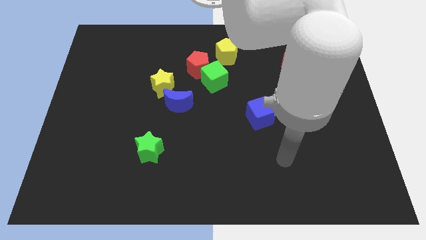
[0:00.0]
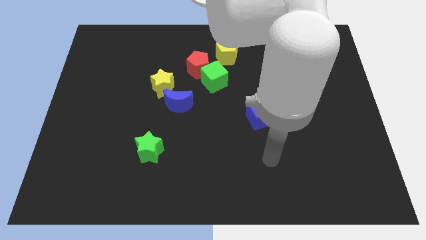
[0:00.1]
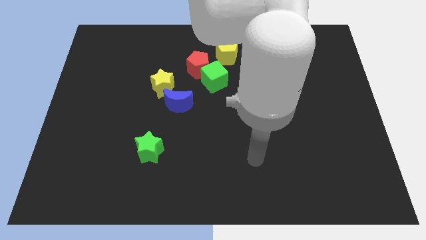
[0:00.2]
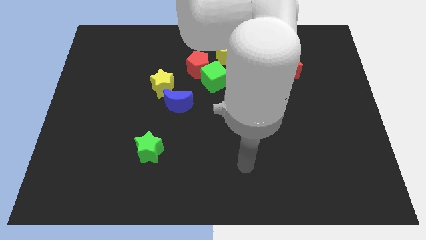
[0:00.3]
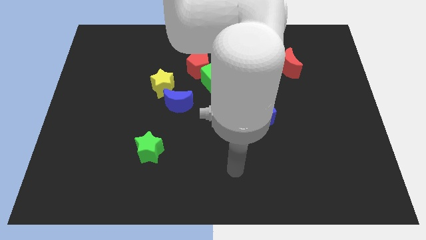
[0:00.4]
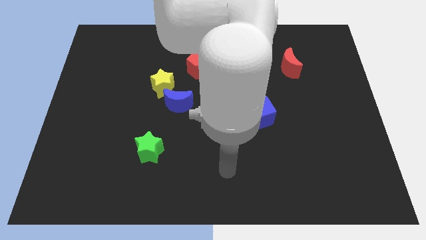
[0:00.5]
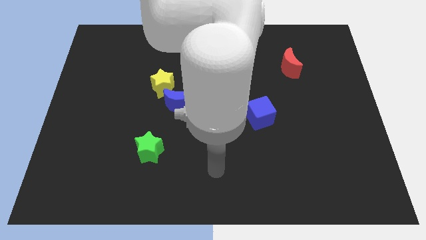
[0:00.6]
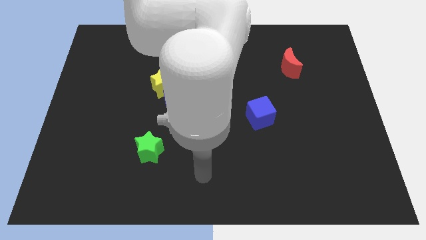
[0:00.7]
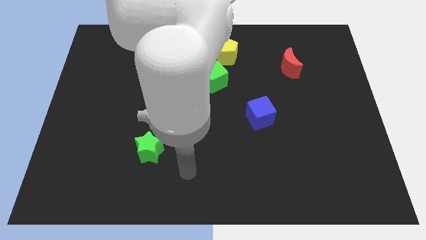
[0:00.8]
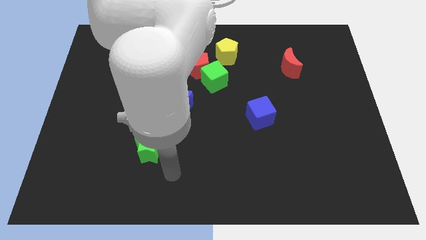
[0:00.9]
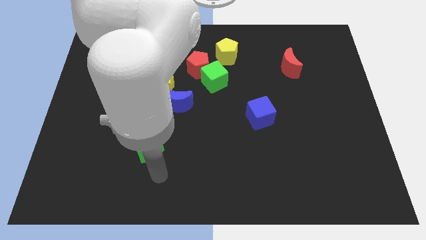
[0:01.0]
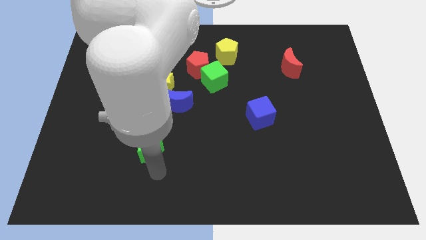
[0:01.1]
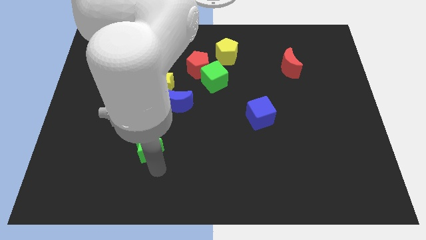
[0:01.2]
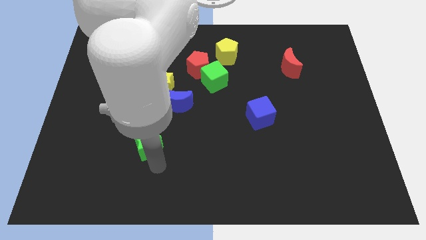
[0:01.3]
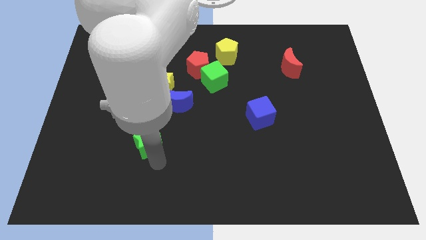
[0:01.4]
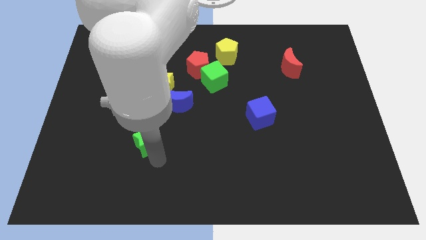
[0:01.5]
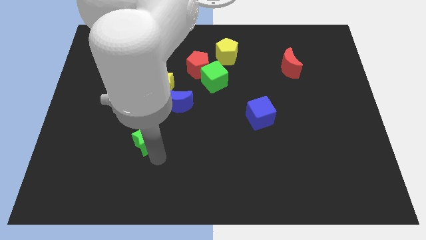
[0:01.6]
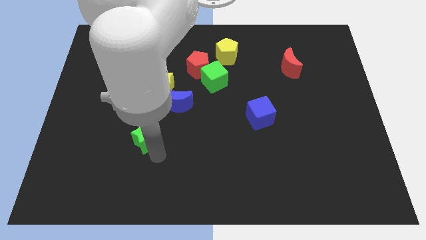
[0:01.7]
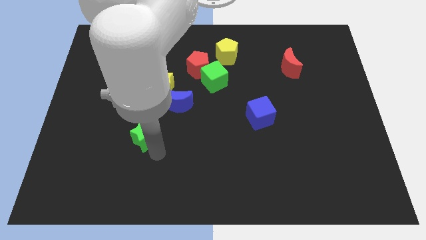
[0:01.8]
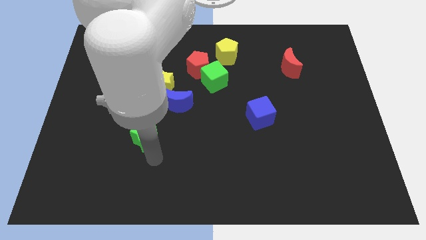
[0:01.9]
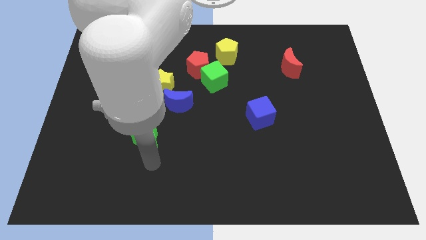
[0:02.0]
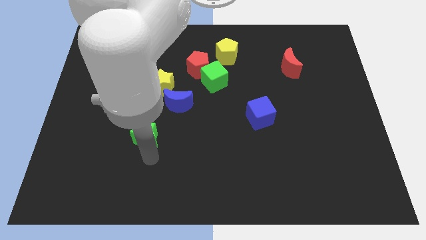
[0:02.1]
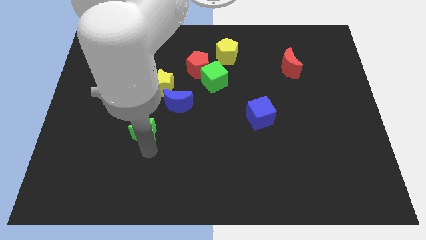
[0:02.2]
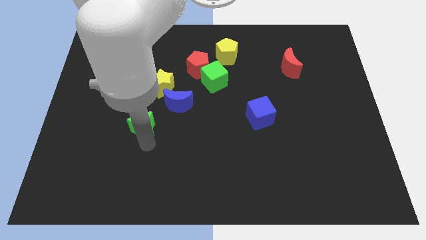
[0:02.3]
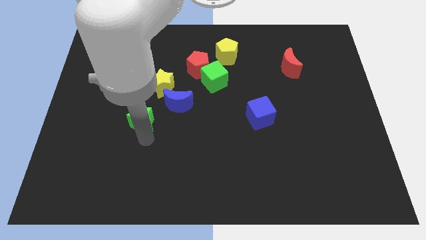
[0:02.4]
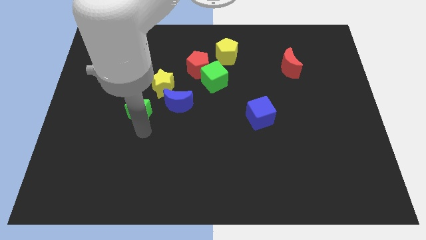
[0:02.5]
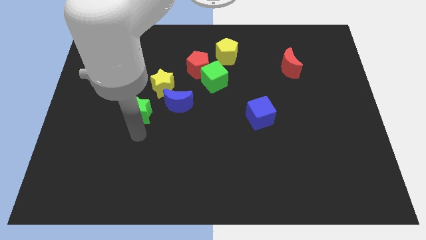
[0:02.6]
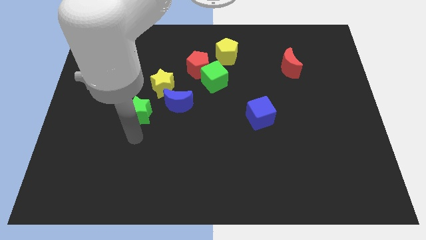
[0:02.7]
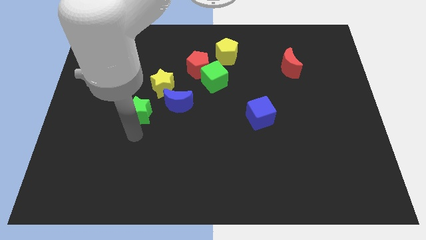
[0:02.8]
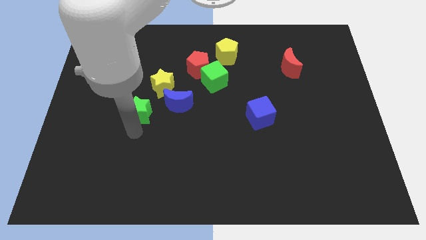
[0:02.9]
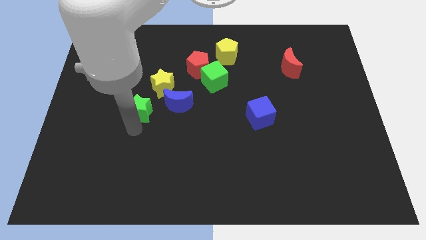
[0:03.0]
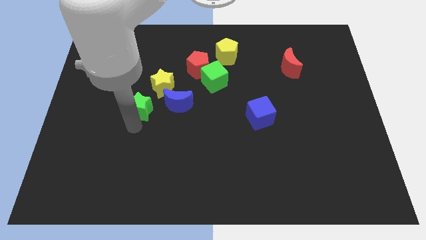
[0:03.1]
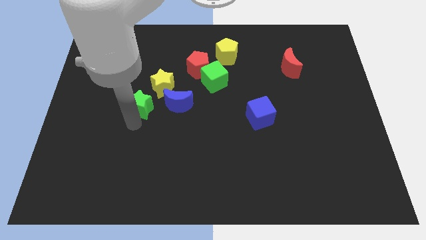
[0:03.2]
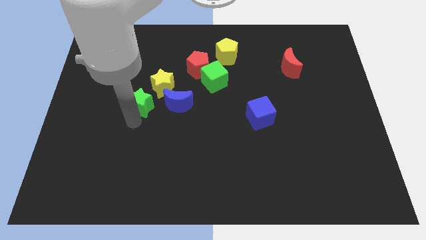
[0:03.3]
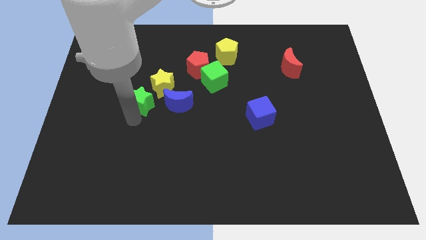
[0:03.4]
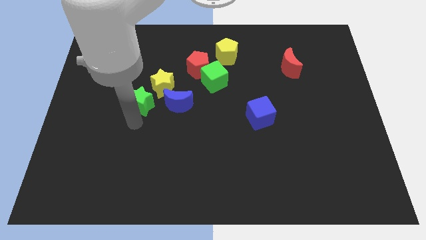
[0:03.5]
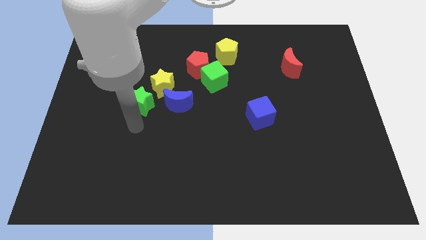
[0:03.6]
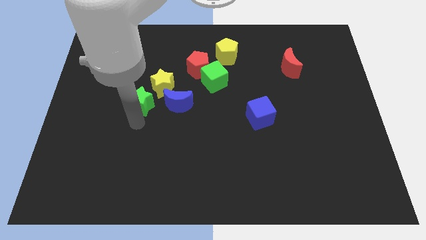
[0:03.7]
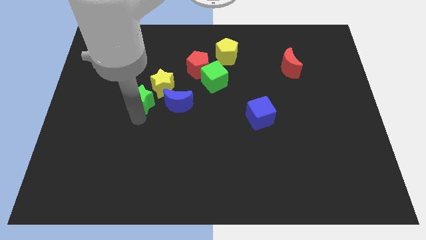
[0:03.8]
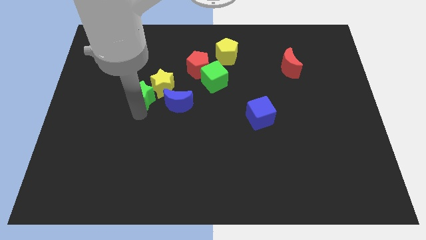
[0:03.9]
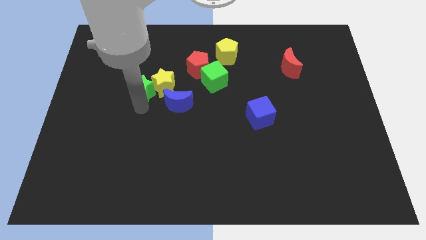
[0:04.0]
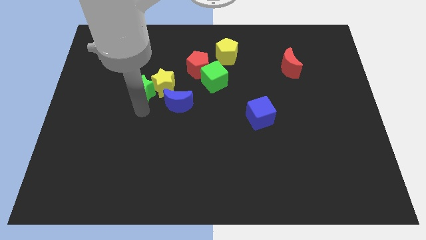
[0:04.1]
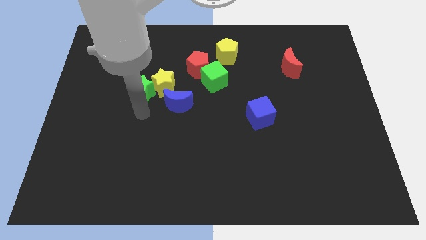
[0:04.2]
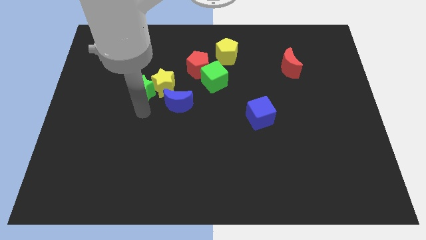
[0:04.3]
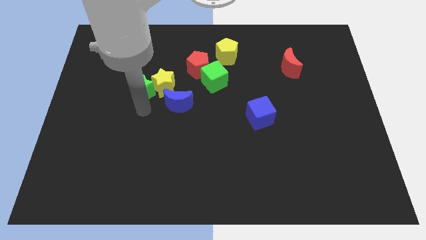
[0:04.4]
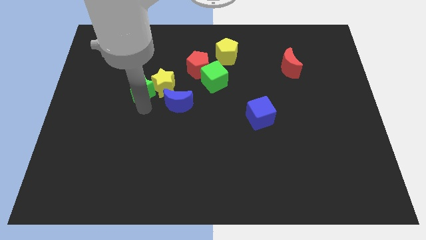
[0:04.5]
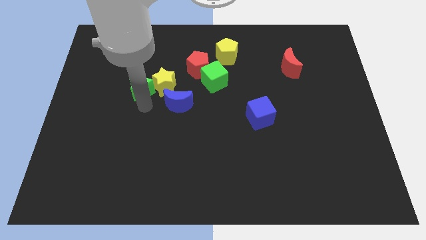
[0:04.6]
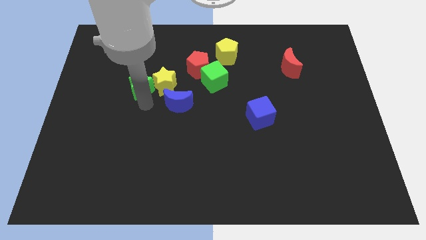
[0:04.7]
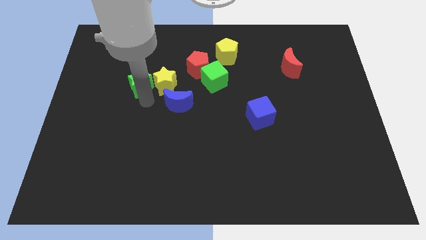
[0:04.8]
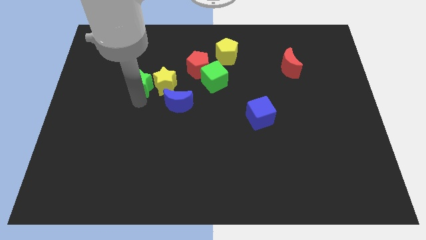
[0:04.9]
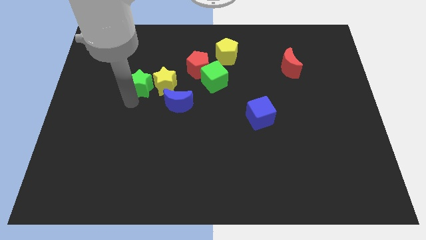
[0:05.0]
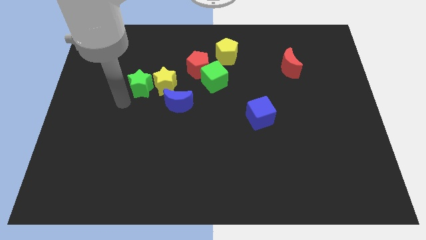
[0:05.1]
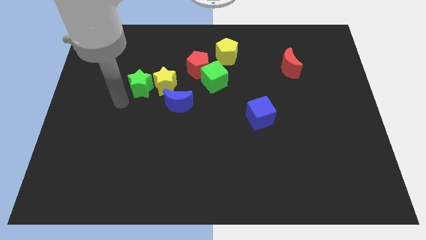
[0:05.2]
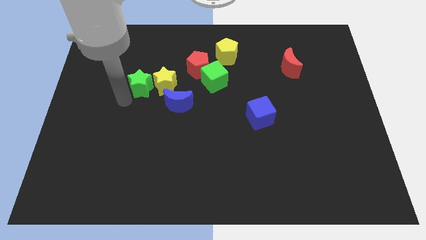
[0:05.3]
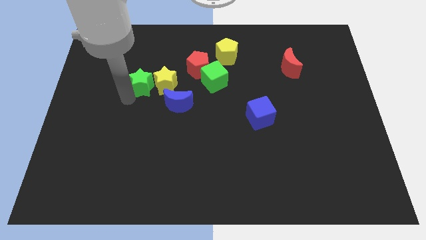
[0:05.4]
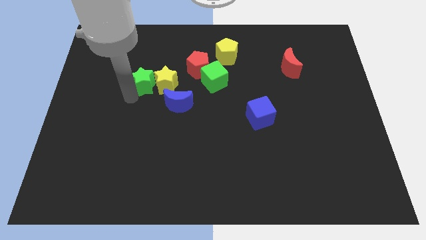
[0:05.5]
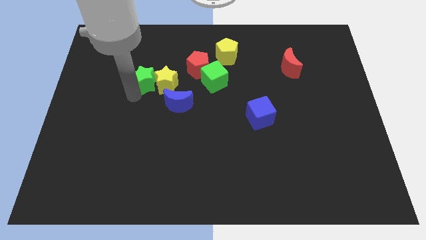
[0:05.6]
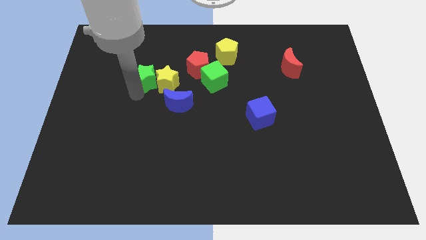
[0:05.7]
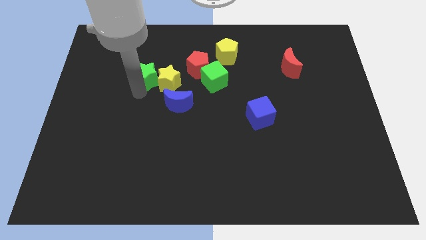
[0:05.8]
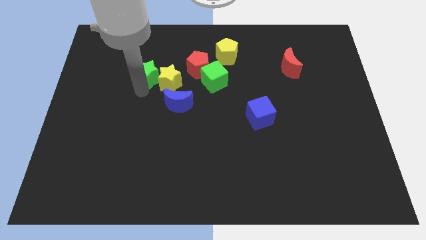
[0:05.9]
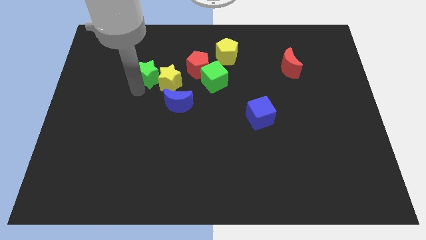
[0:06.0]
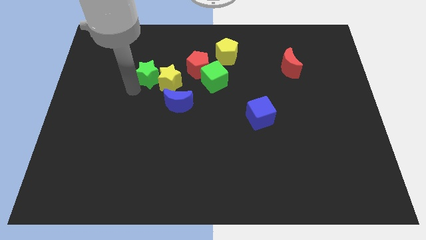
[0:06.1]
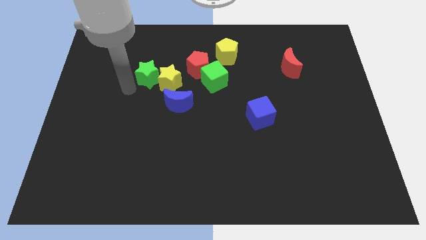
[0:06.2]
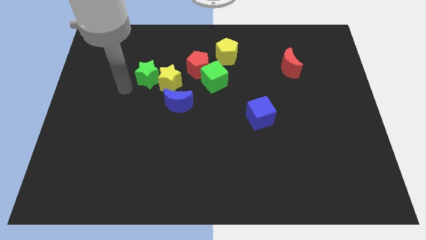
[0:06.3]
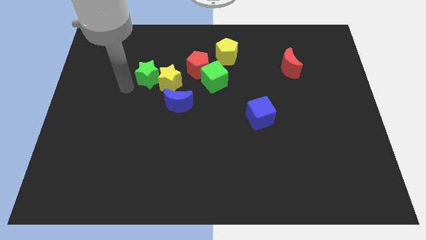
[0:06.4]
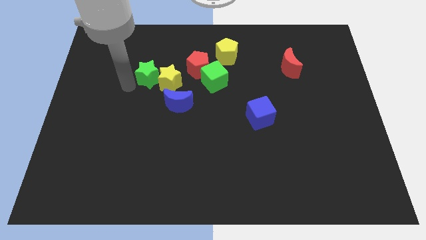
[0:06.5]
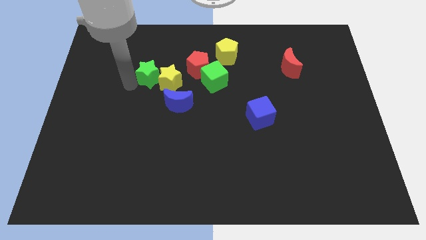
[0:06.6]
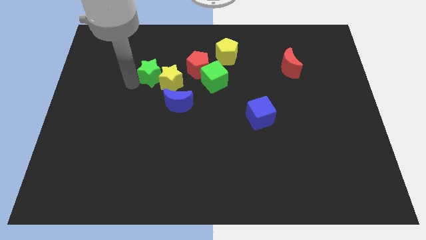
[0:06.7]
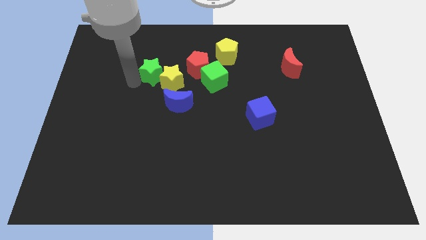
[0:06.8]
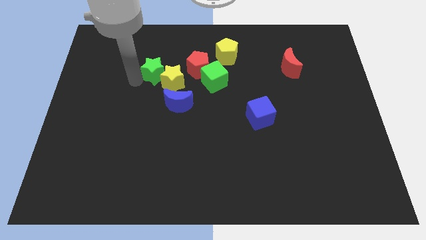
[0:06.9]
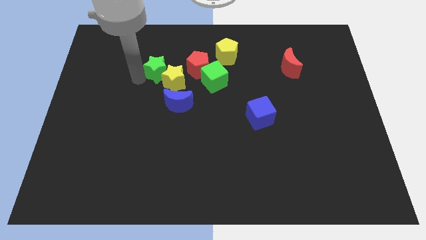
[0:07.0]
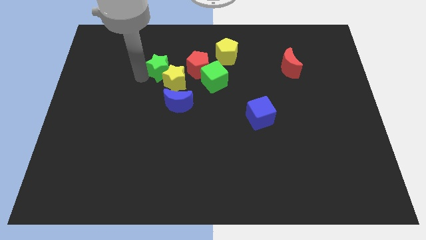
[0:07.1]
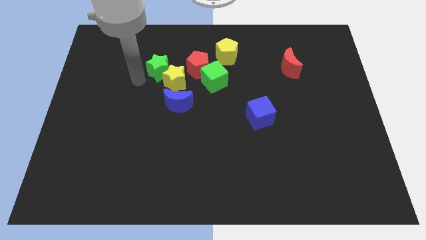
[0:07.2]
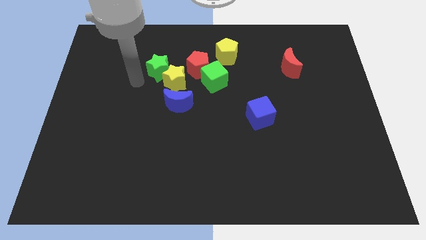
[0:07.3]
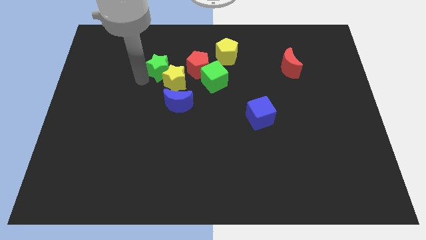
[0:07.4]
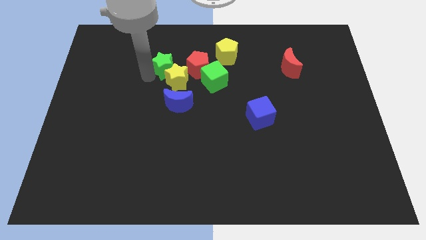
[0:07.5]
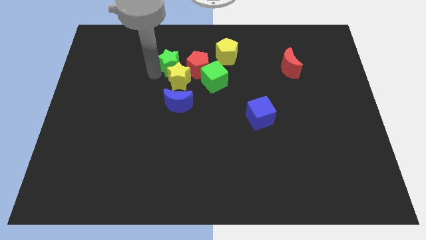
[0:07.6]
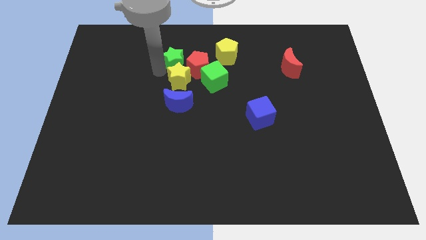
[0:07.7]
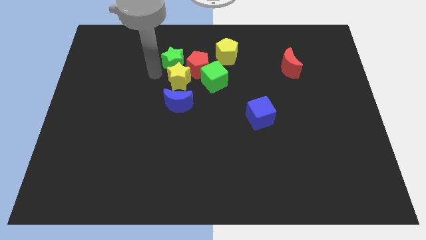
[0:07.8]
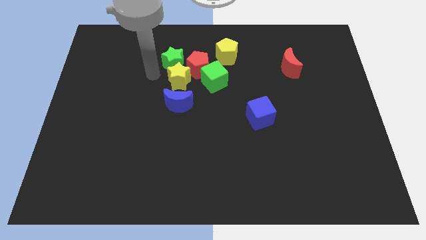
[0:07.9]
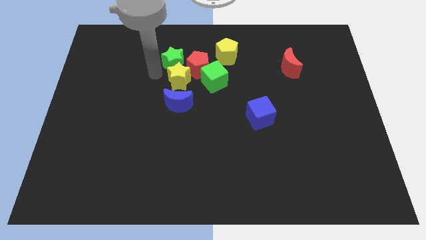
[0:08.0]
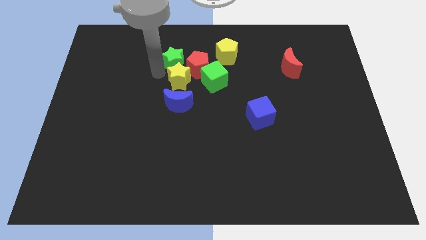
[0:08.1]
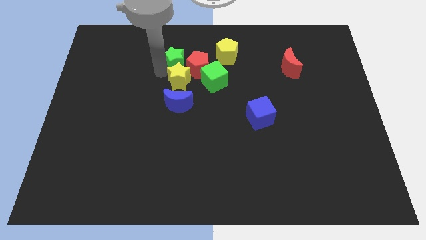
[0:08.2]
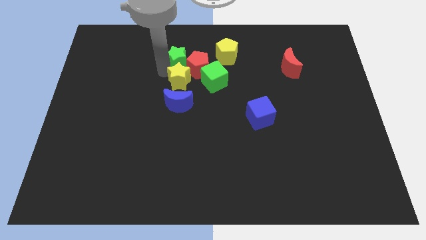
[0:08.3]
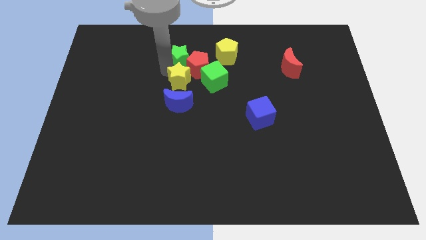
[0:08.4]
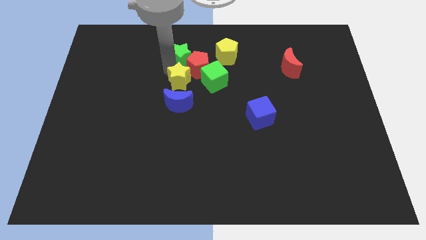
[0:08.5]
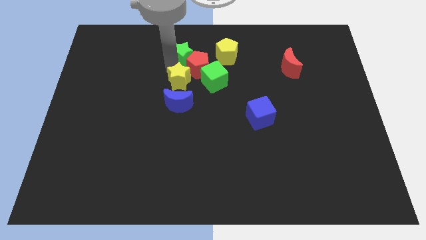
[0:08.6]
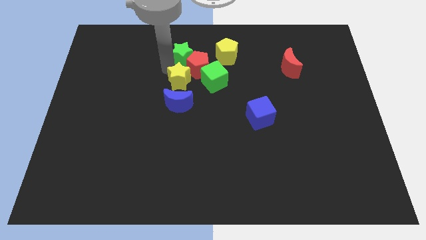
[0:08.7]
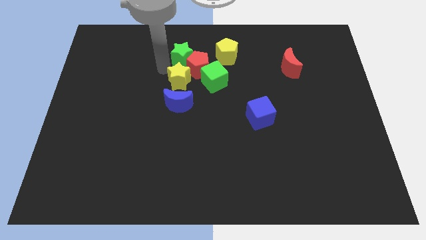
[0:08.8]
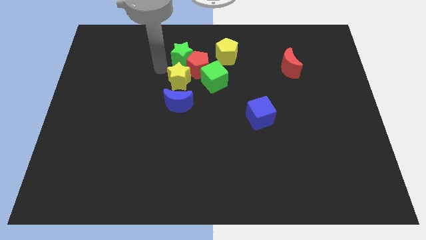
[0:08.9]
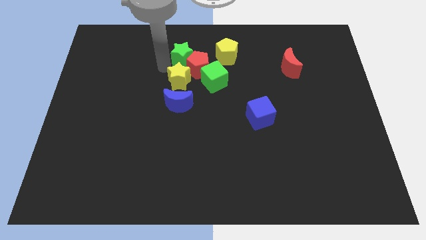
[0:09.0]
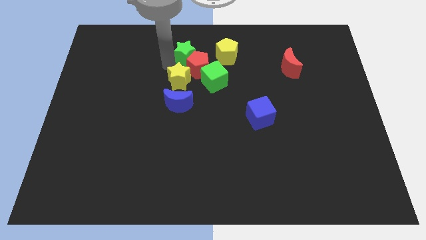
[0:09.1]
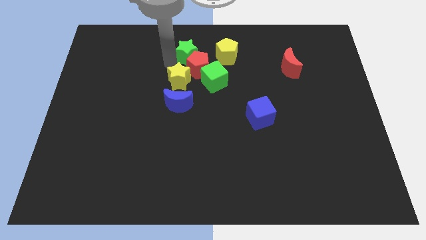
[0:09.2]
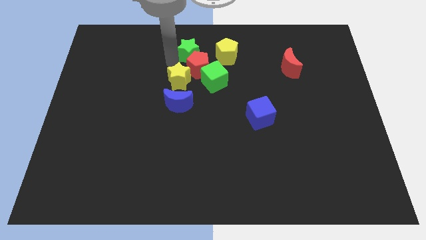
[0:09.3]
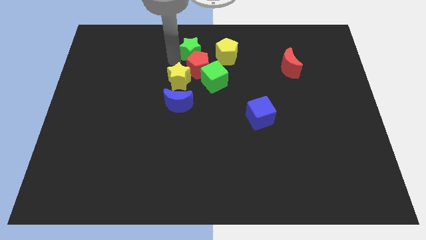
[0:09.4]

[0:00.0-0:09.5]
put the green star to the top
